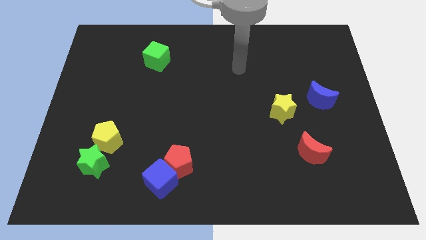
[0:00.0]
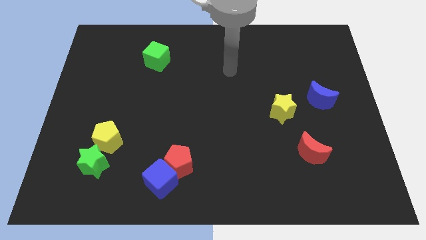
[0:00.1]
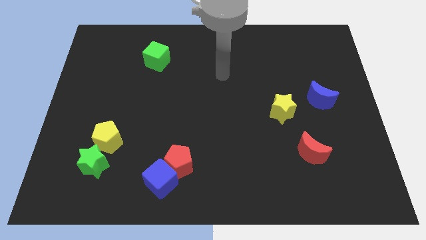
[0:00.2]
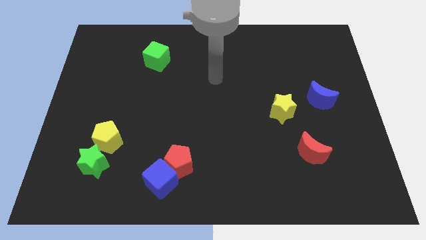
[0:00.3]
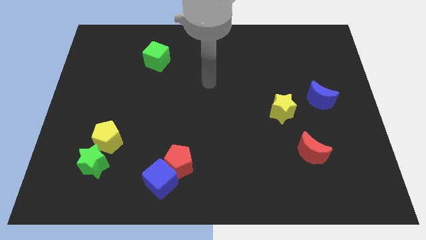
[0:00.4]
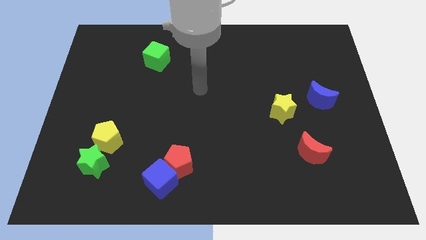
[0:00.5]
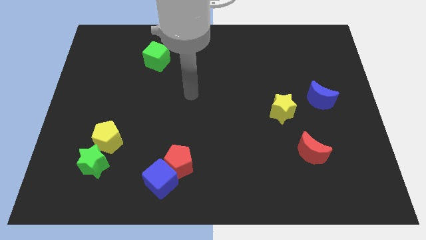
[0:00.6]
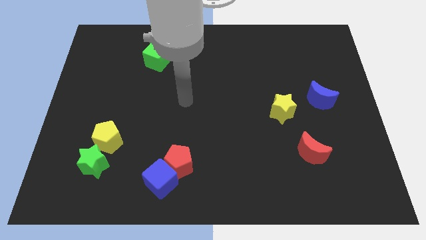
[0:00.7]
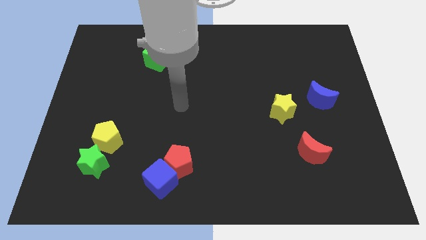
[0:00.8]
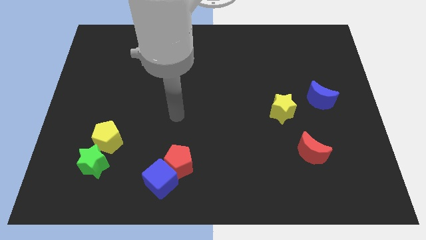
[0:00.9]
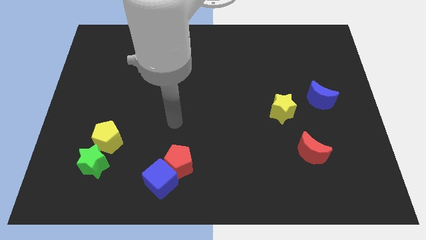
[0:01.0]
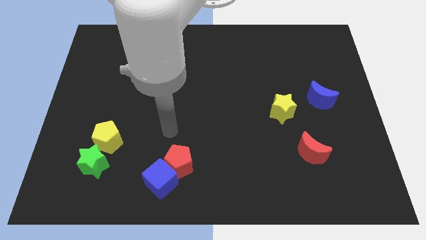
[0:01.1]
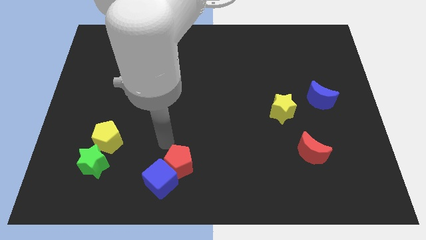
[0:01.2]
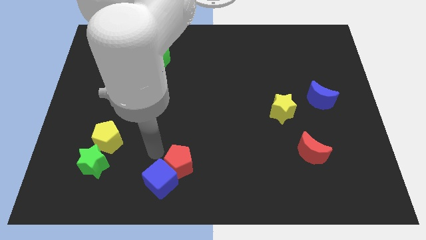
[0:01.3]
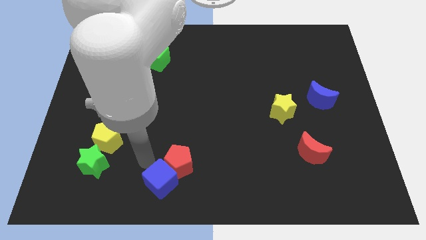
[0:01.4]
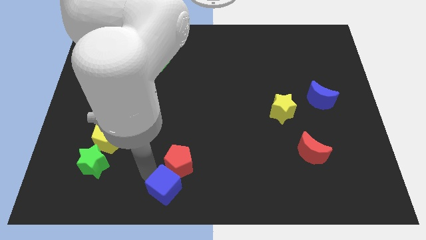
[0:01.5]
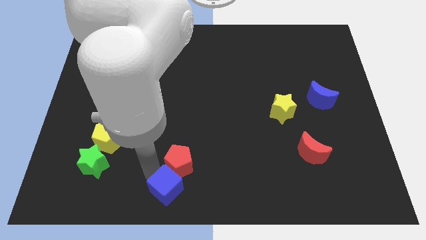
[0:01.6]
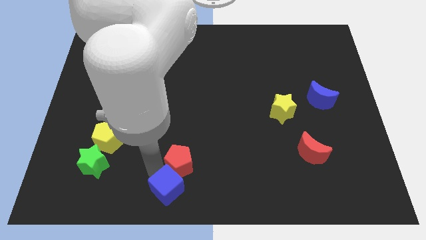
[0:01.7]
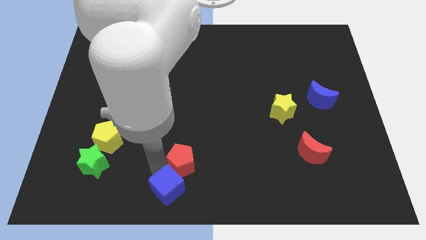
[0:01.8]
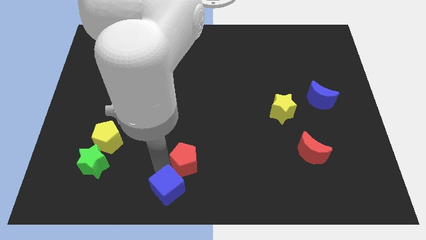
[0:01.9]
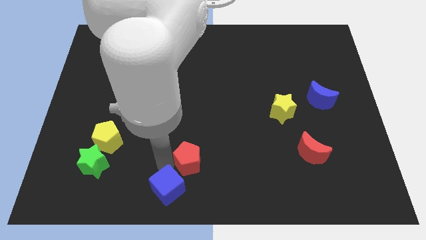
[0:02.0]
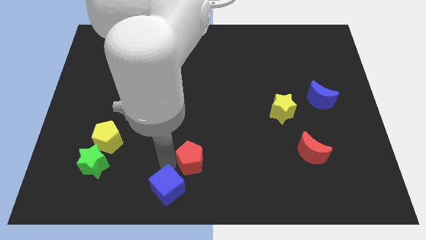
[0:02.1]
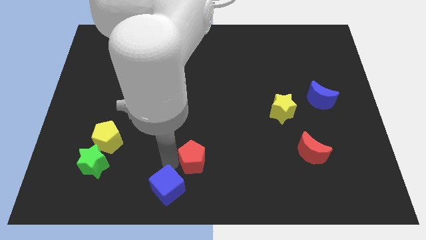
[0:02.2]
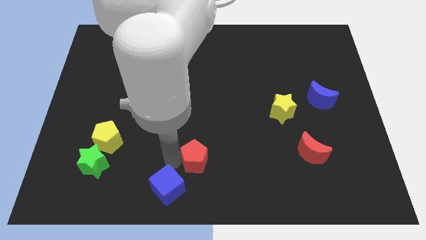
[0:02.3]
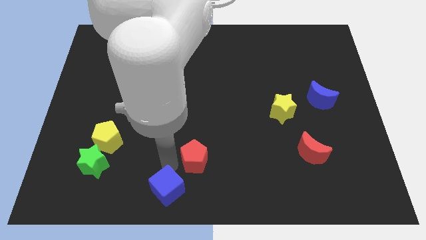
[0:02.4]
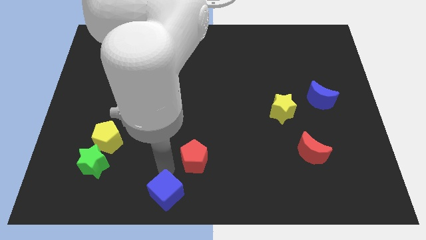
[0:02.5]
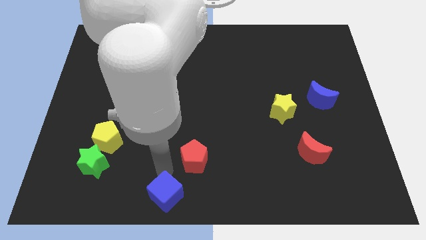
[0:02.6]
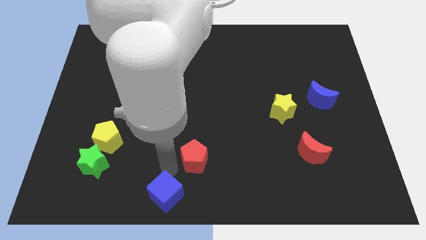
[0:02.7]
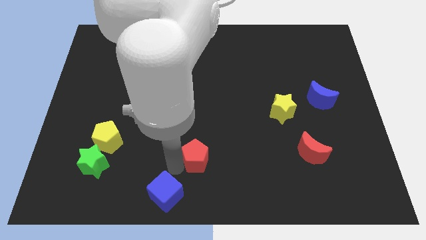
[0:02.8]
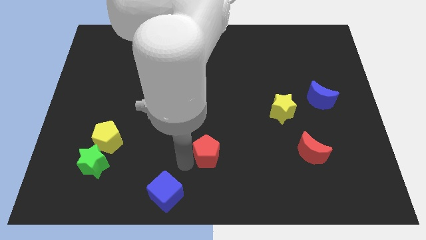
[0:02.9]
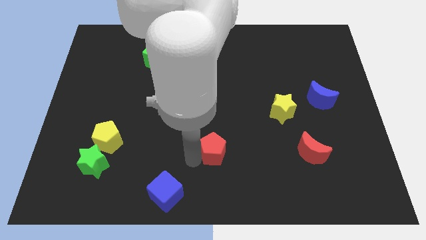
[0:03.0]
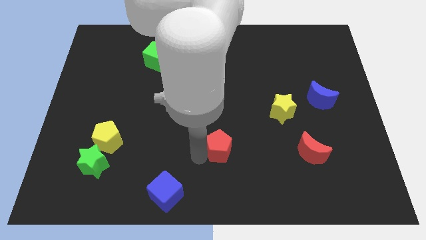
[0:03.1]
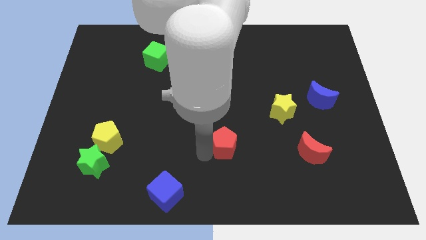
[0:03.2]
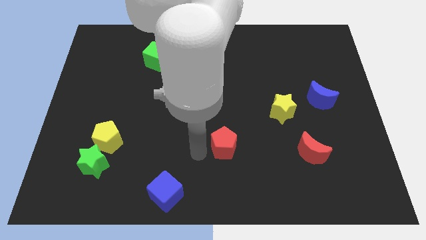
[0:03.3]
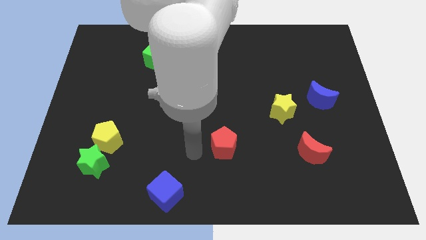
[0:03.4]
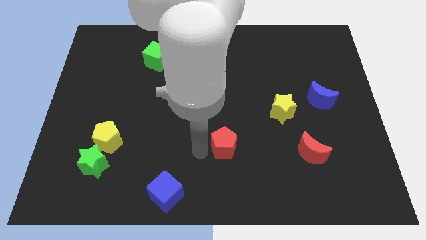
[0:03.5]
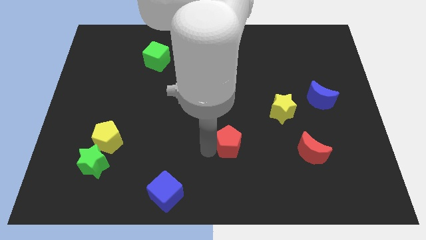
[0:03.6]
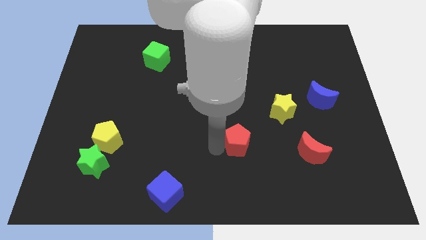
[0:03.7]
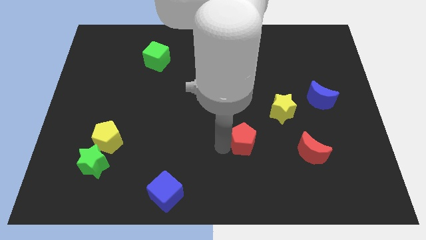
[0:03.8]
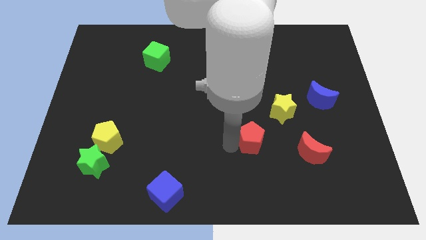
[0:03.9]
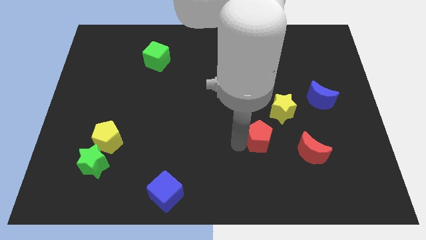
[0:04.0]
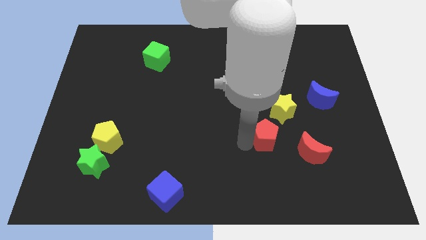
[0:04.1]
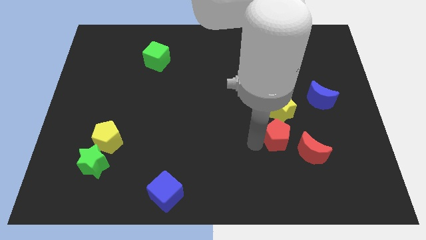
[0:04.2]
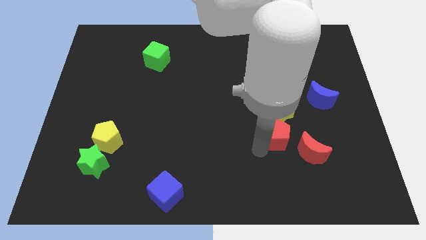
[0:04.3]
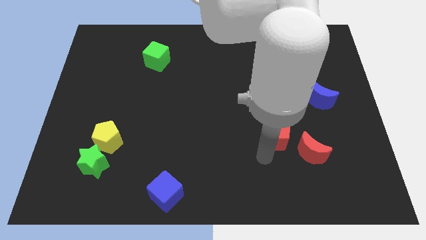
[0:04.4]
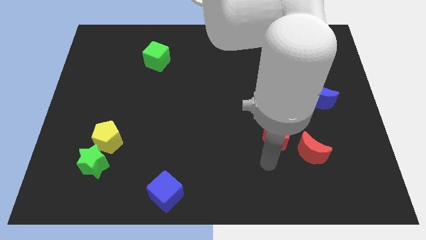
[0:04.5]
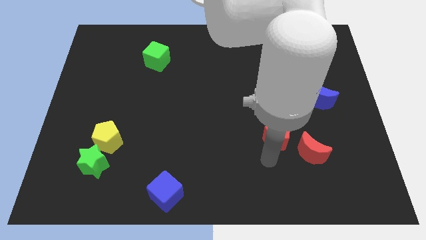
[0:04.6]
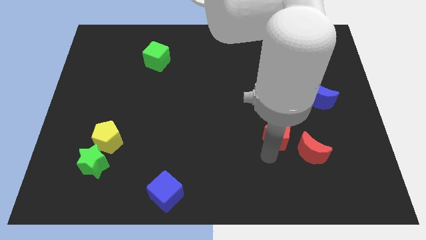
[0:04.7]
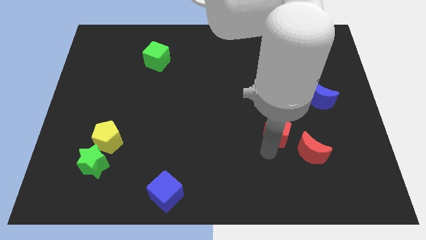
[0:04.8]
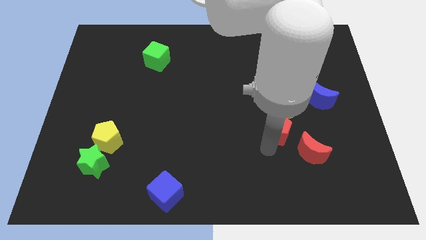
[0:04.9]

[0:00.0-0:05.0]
slide the red pentagon close to the yellow star

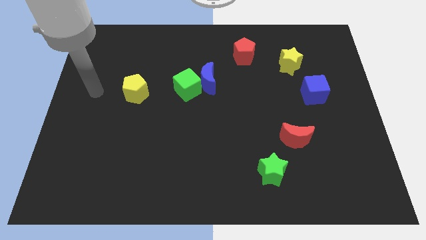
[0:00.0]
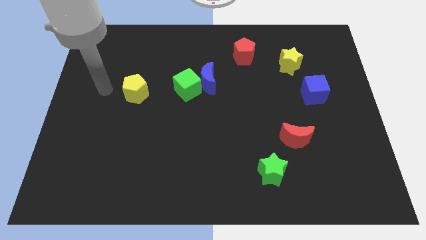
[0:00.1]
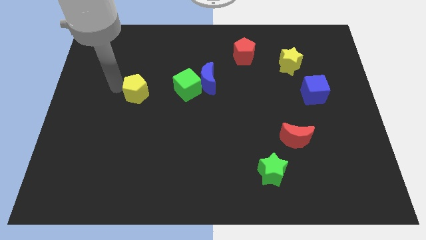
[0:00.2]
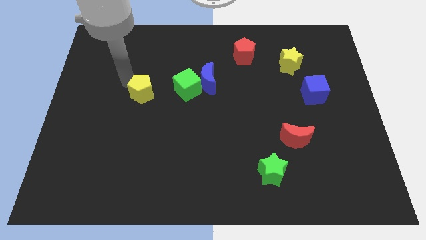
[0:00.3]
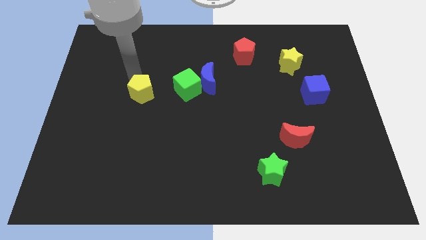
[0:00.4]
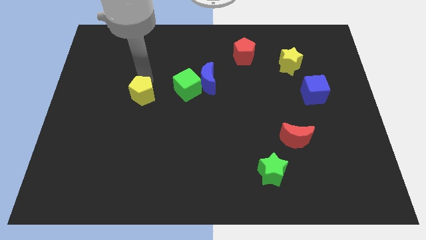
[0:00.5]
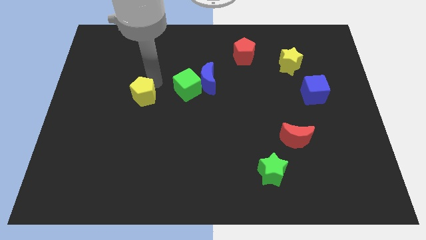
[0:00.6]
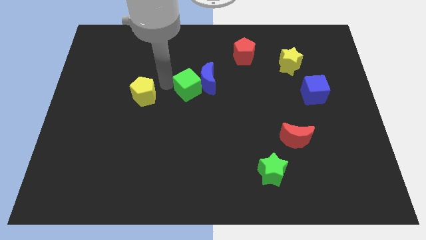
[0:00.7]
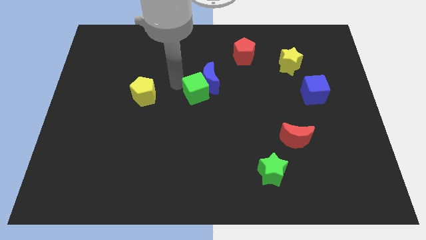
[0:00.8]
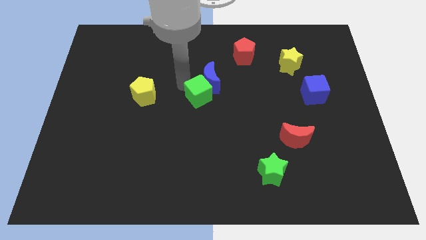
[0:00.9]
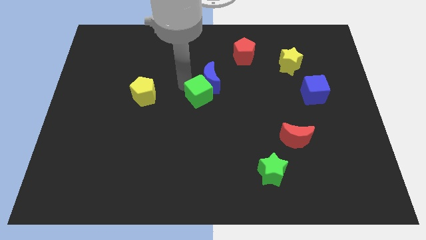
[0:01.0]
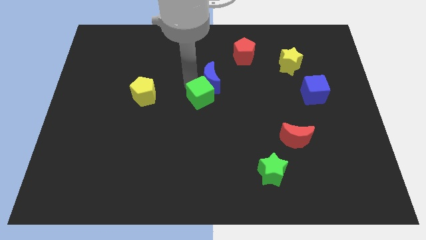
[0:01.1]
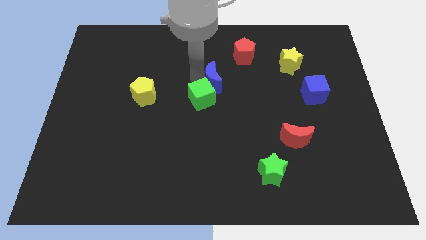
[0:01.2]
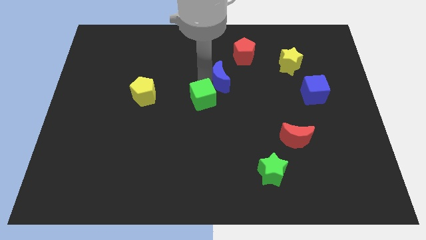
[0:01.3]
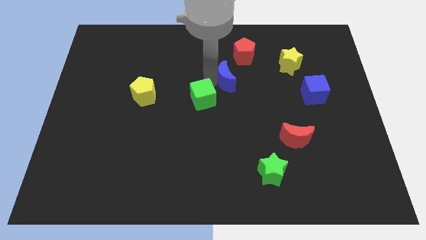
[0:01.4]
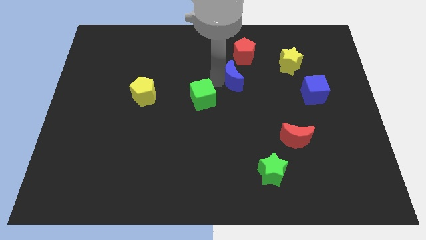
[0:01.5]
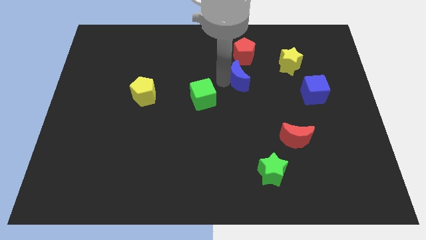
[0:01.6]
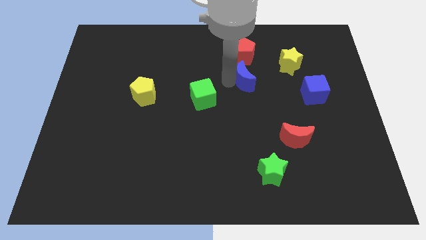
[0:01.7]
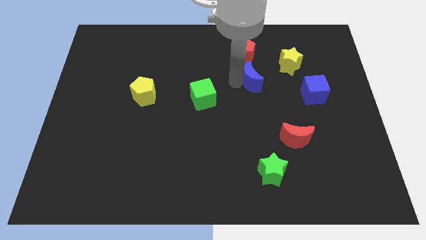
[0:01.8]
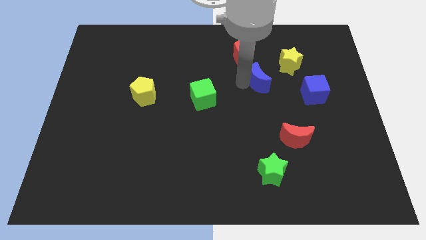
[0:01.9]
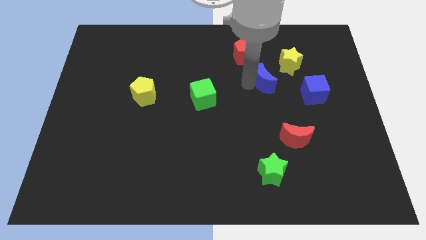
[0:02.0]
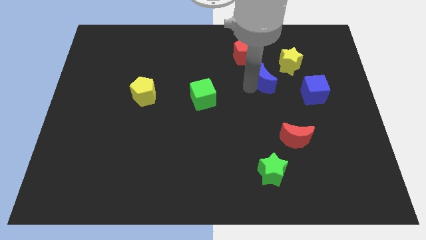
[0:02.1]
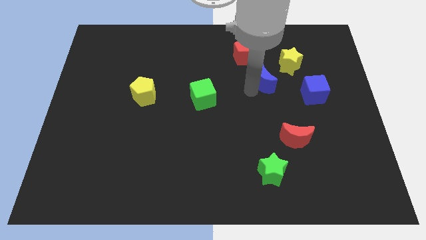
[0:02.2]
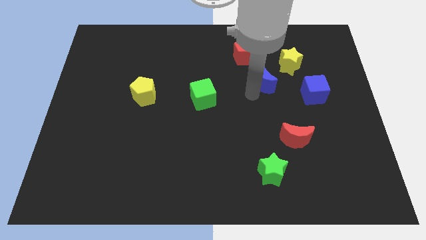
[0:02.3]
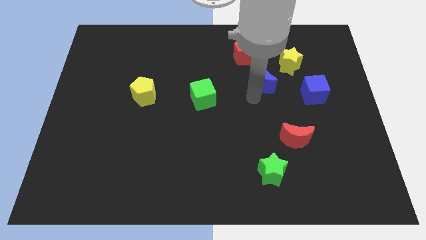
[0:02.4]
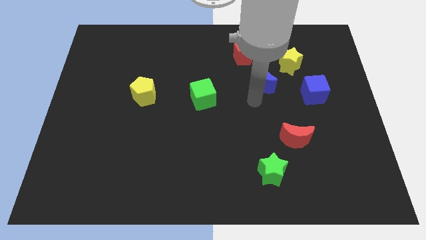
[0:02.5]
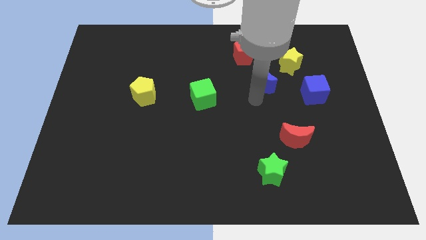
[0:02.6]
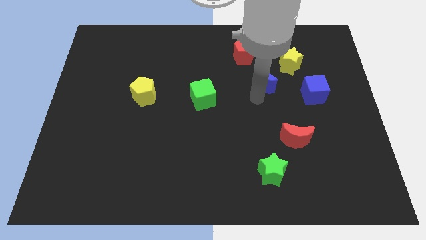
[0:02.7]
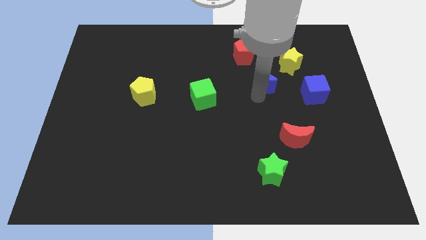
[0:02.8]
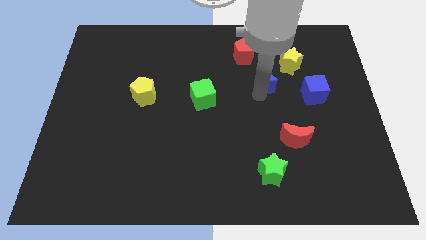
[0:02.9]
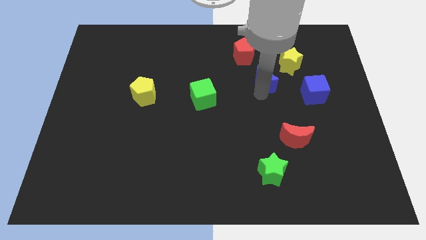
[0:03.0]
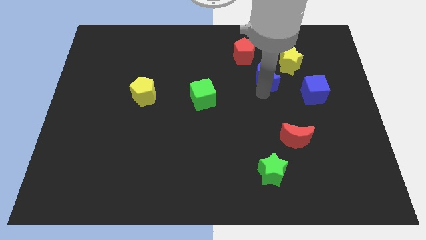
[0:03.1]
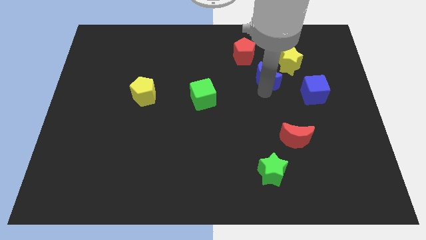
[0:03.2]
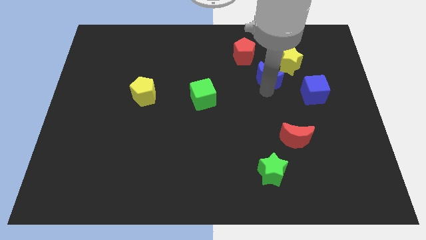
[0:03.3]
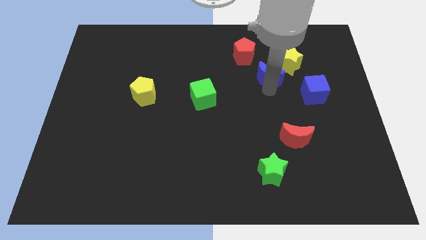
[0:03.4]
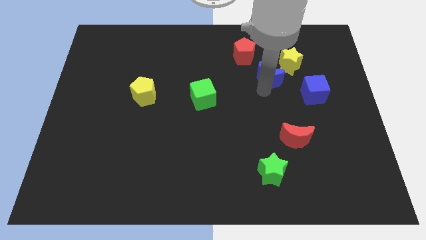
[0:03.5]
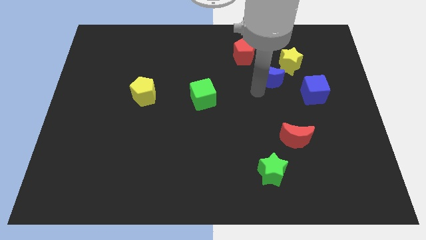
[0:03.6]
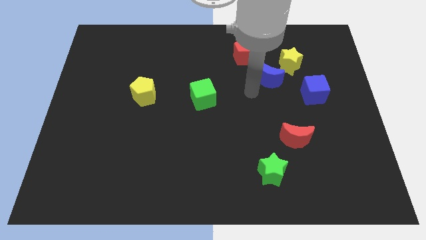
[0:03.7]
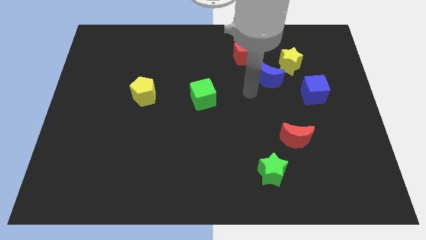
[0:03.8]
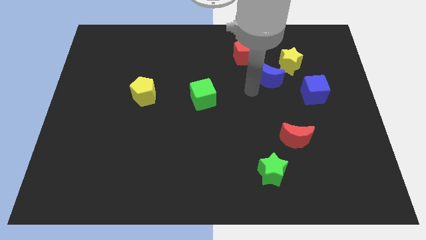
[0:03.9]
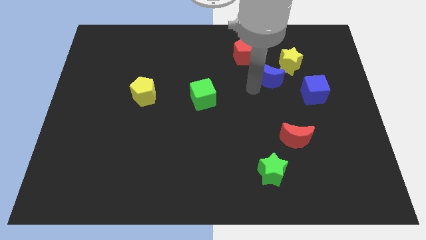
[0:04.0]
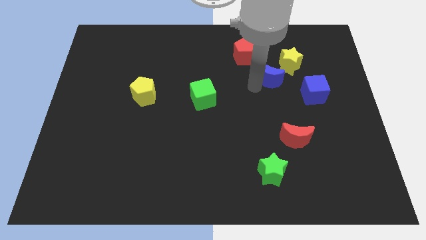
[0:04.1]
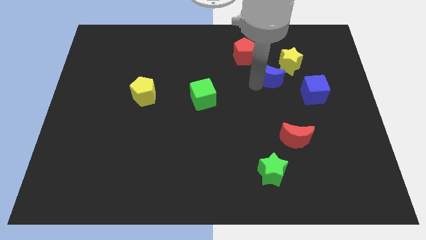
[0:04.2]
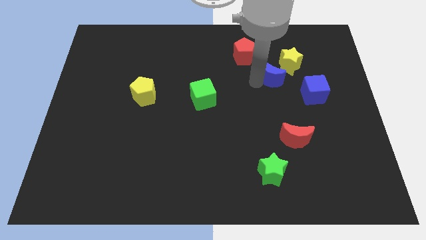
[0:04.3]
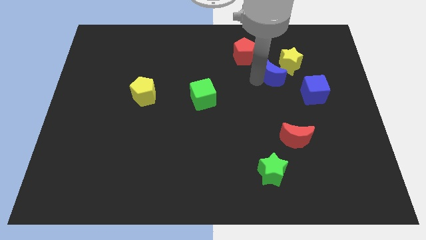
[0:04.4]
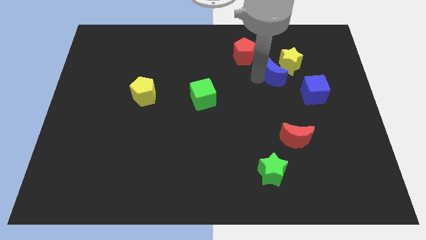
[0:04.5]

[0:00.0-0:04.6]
put the blue moon to the yellow star
